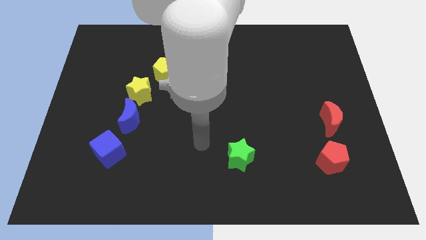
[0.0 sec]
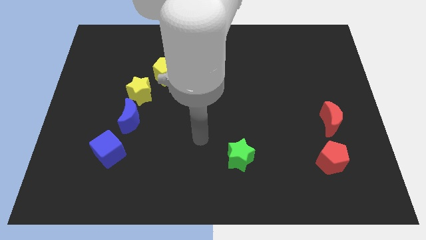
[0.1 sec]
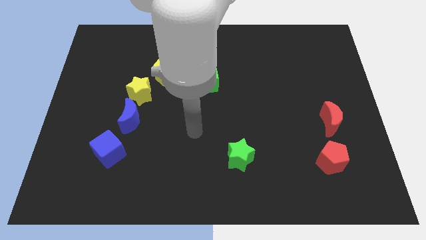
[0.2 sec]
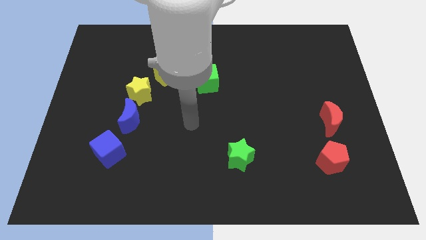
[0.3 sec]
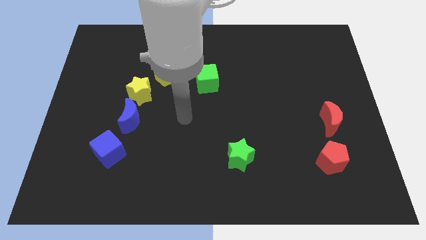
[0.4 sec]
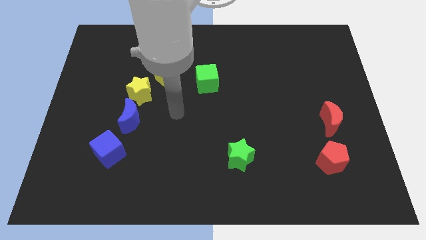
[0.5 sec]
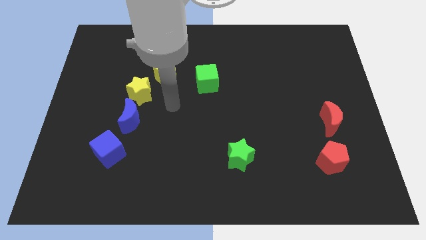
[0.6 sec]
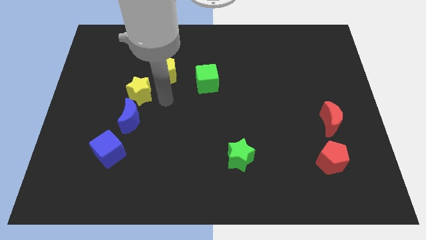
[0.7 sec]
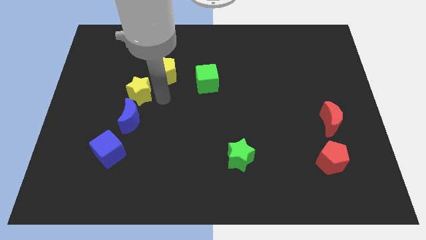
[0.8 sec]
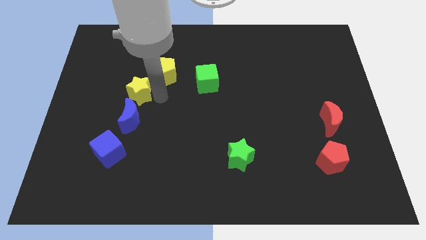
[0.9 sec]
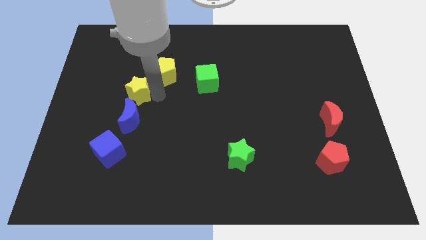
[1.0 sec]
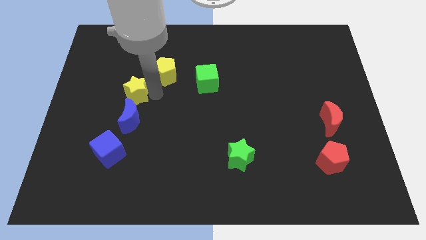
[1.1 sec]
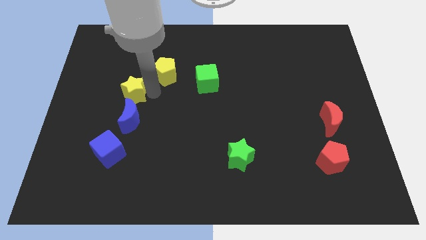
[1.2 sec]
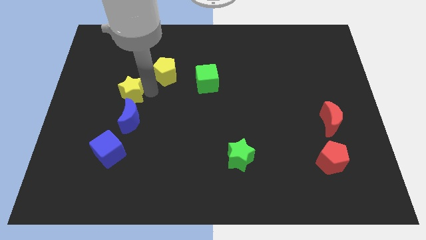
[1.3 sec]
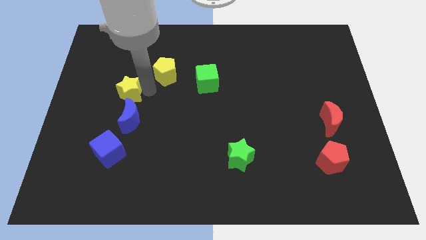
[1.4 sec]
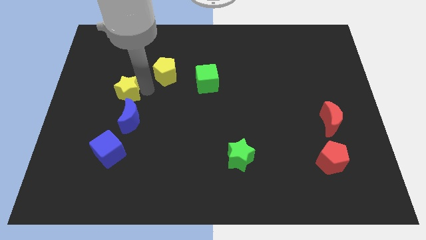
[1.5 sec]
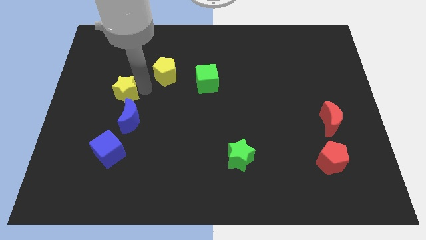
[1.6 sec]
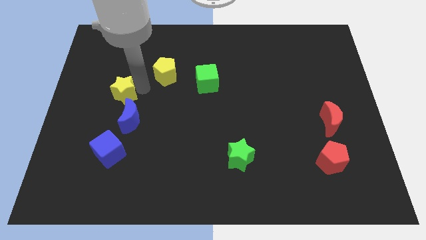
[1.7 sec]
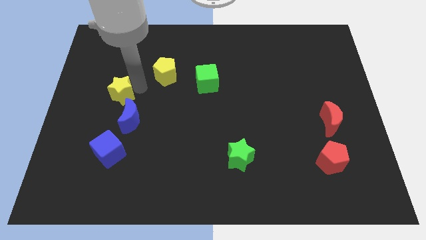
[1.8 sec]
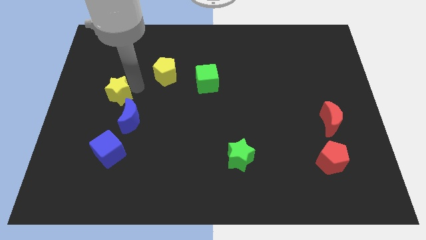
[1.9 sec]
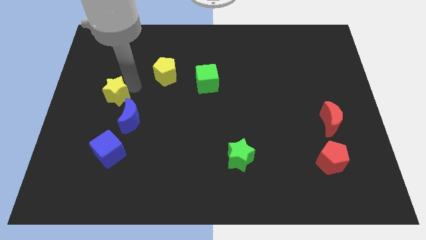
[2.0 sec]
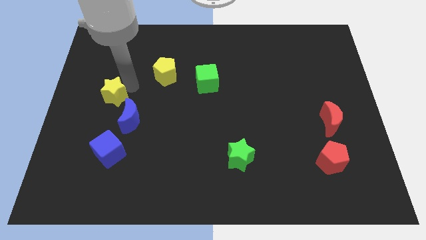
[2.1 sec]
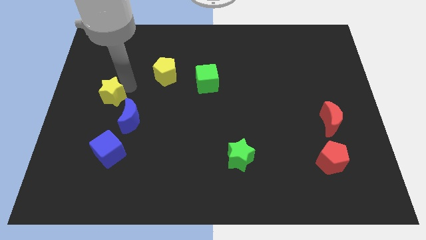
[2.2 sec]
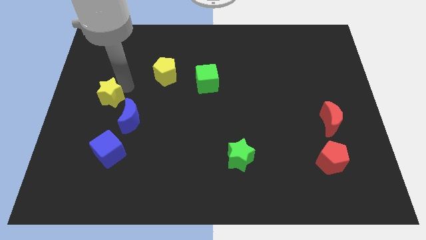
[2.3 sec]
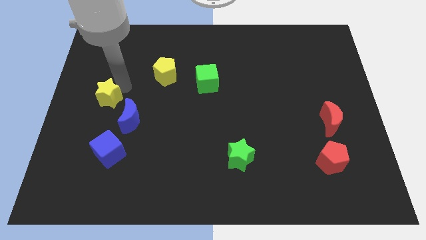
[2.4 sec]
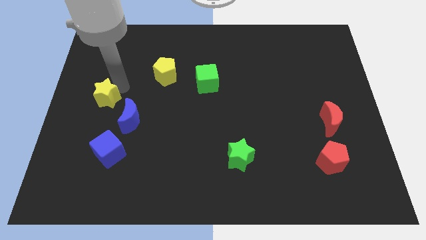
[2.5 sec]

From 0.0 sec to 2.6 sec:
move the yellow star away from the blue moon and yellow pentagon

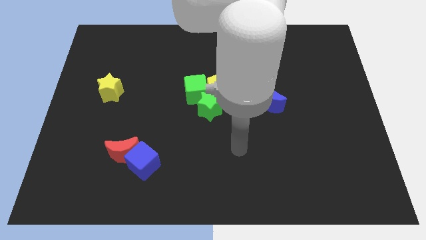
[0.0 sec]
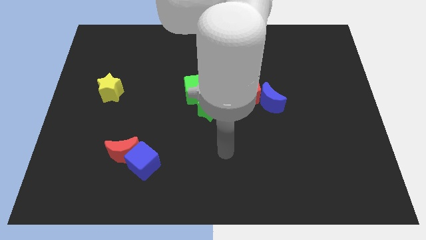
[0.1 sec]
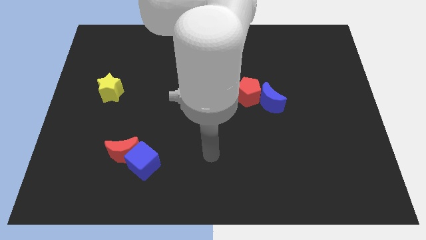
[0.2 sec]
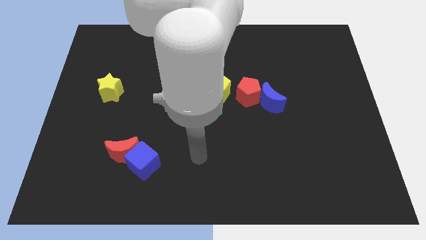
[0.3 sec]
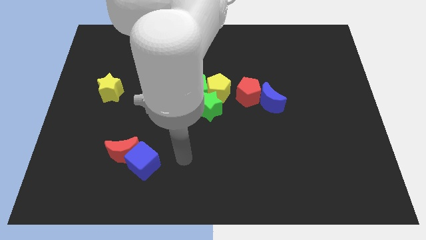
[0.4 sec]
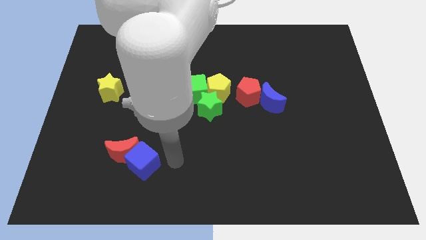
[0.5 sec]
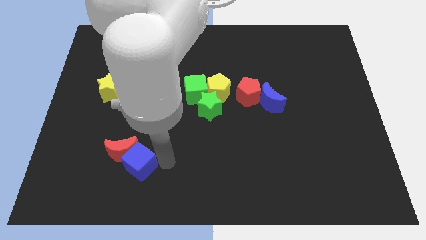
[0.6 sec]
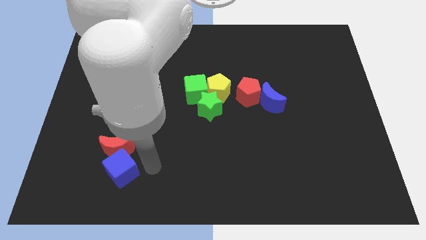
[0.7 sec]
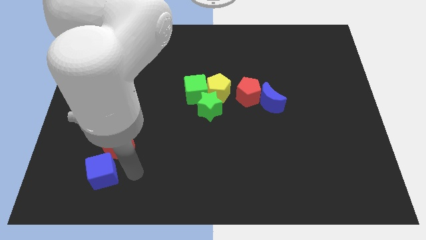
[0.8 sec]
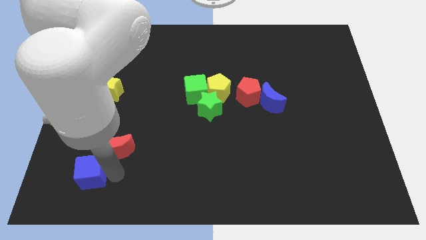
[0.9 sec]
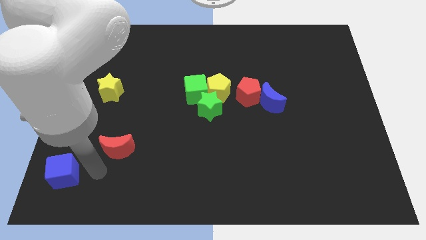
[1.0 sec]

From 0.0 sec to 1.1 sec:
separate the red moon from the blue cube

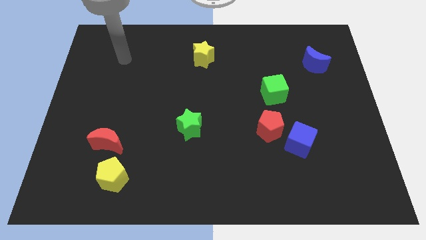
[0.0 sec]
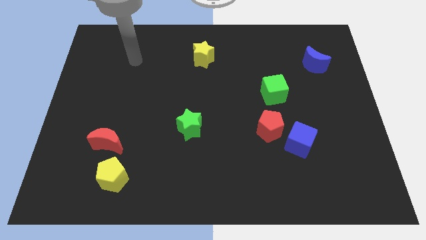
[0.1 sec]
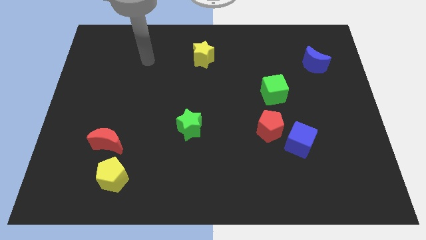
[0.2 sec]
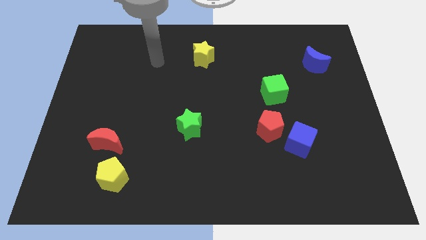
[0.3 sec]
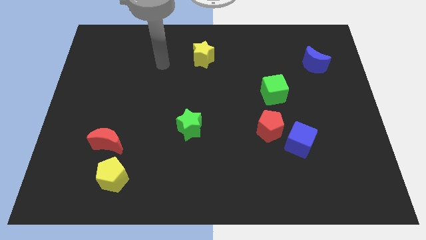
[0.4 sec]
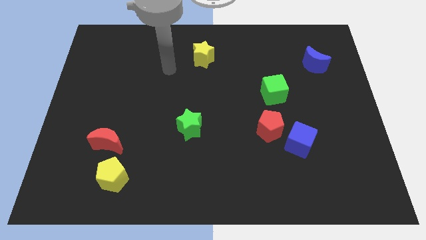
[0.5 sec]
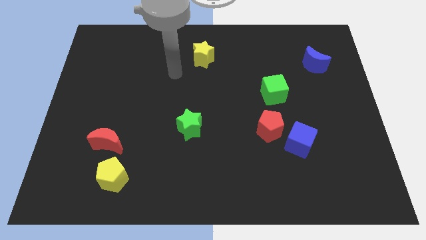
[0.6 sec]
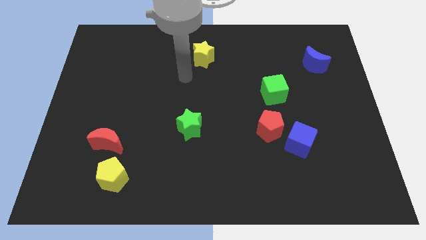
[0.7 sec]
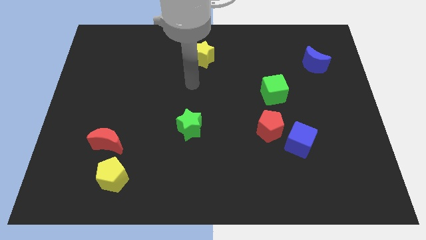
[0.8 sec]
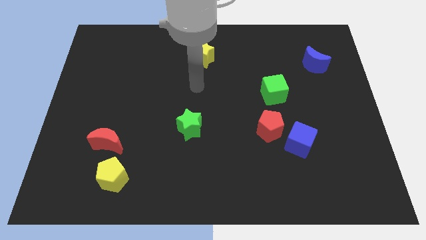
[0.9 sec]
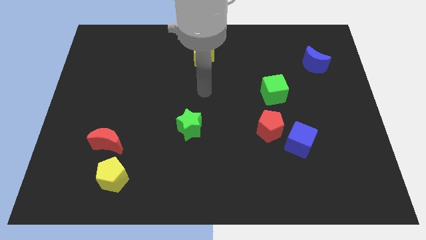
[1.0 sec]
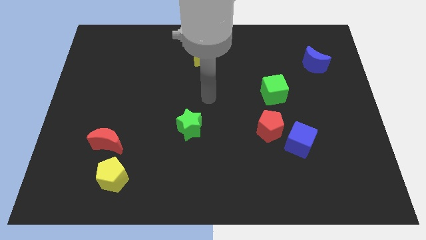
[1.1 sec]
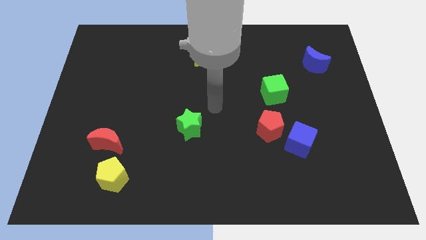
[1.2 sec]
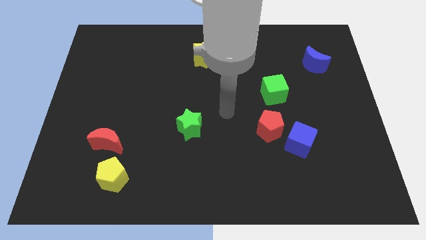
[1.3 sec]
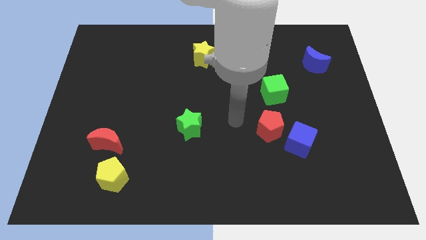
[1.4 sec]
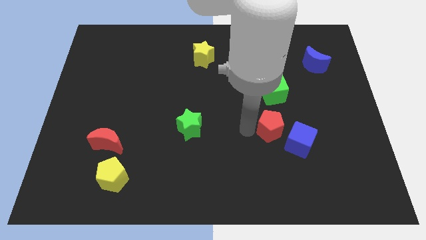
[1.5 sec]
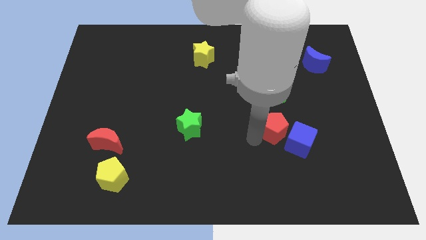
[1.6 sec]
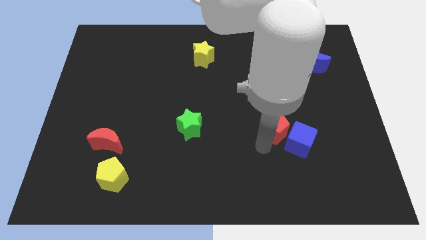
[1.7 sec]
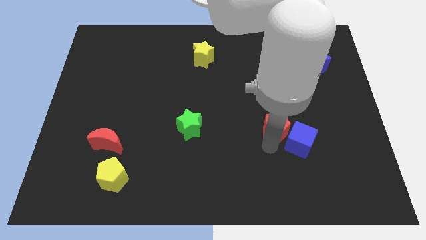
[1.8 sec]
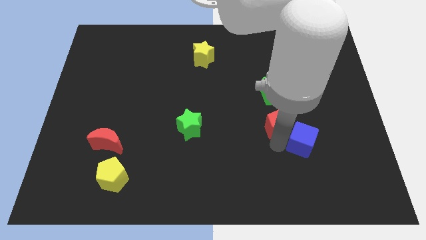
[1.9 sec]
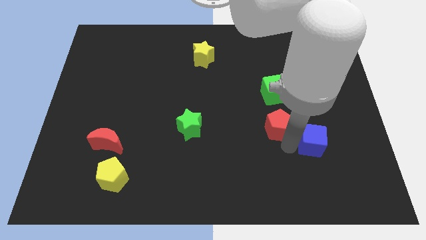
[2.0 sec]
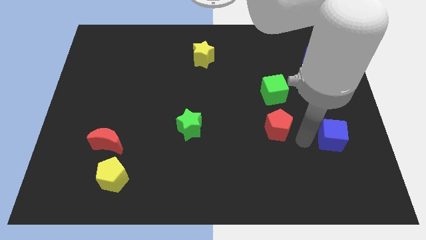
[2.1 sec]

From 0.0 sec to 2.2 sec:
pull the red pentagon apart from the blue cube

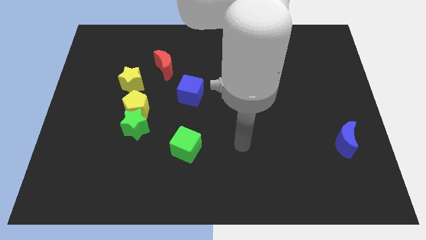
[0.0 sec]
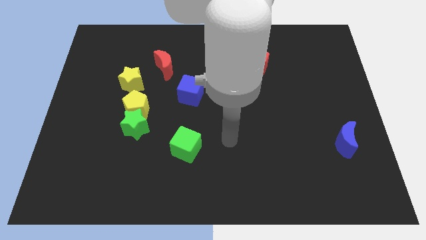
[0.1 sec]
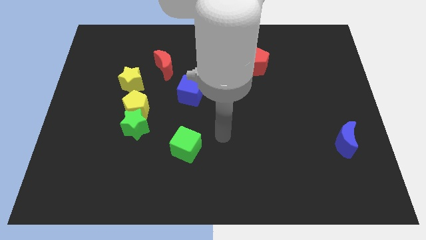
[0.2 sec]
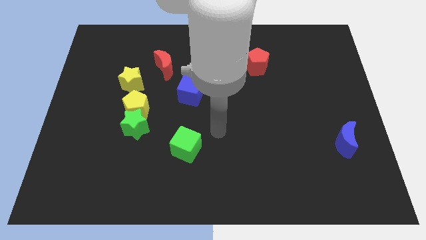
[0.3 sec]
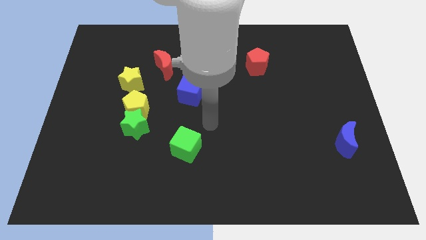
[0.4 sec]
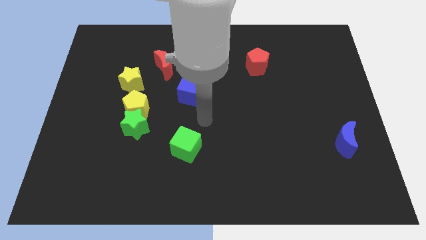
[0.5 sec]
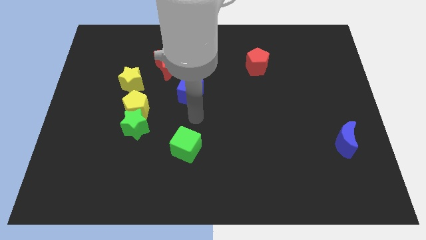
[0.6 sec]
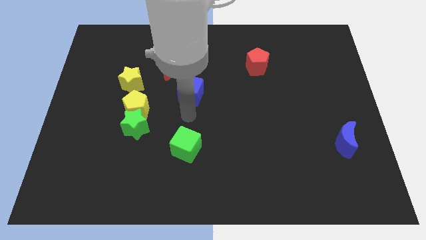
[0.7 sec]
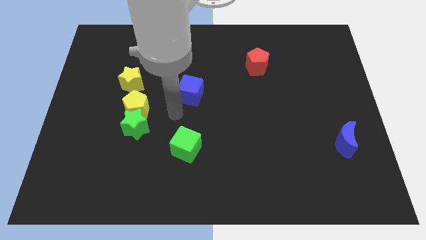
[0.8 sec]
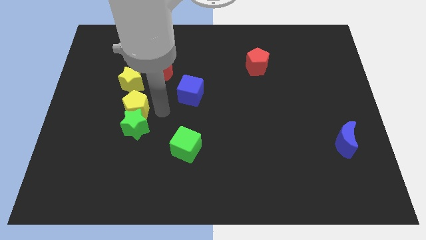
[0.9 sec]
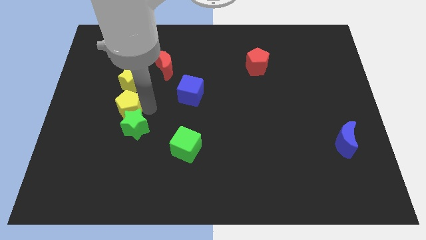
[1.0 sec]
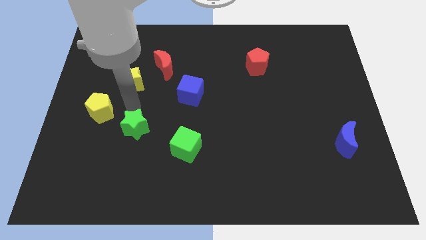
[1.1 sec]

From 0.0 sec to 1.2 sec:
separate the green star from the yellow pentagon

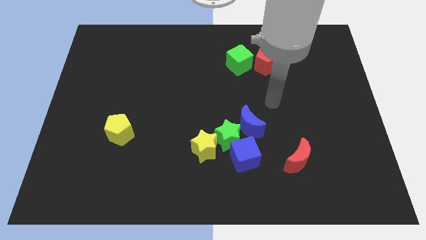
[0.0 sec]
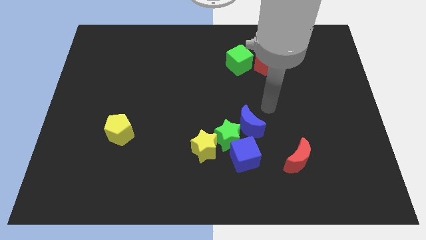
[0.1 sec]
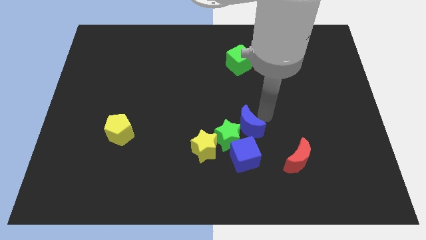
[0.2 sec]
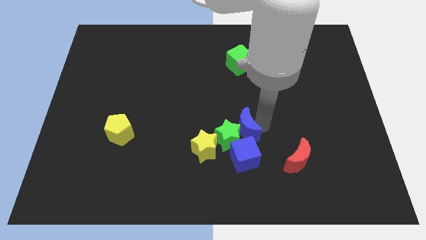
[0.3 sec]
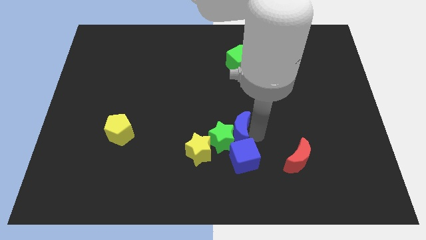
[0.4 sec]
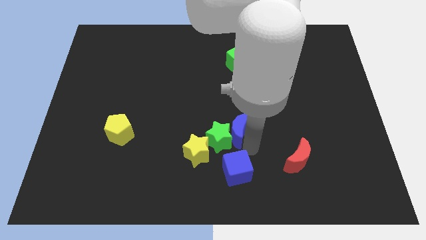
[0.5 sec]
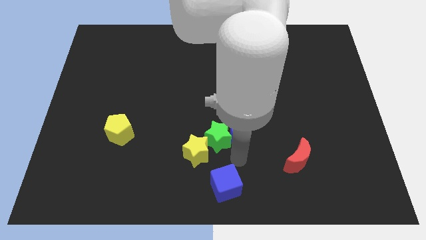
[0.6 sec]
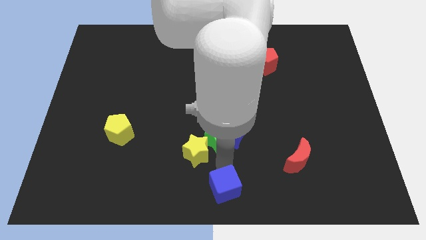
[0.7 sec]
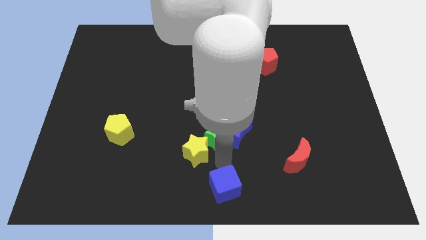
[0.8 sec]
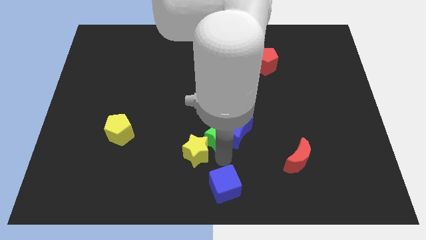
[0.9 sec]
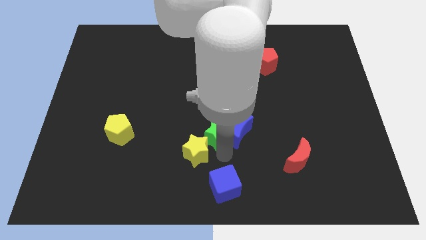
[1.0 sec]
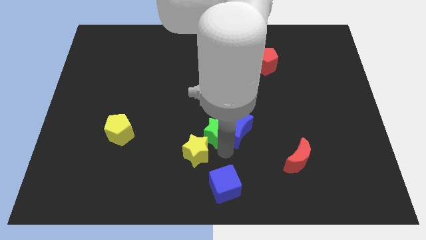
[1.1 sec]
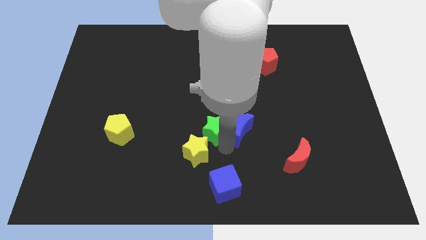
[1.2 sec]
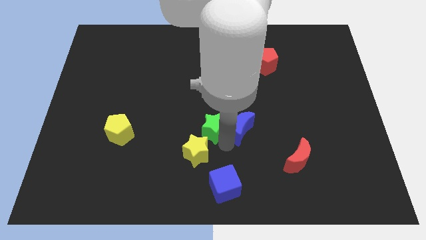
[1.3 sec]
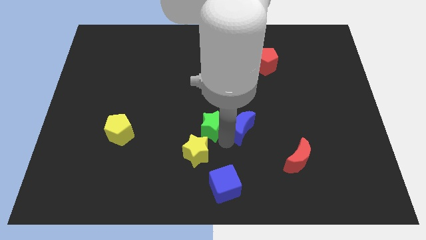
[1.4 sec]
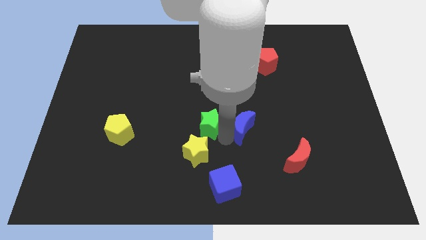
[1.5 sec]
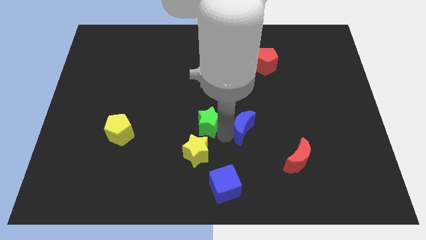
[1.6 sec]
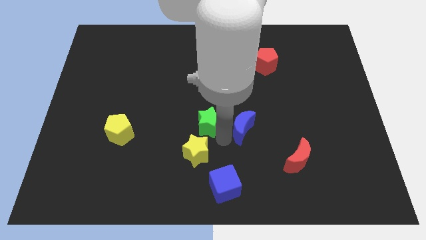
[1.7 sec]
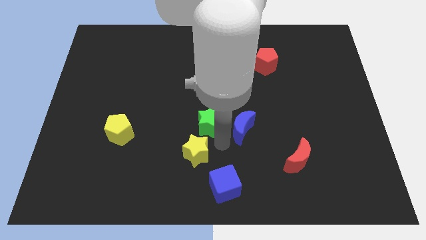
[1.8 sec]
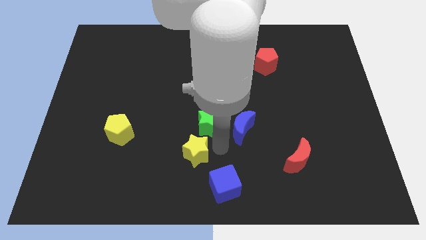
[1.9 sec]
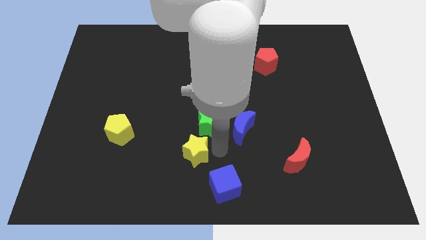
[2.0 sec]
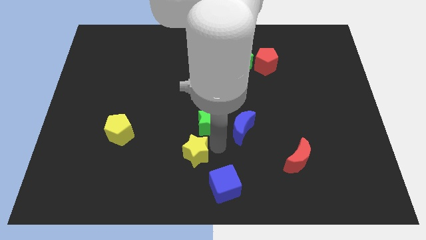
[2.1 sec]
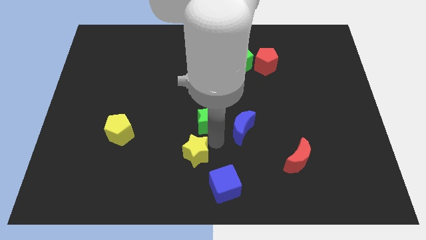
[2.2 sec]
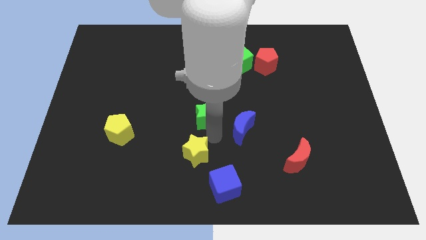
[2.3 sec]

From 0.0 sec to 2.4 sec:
move the green star away from the clump
